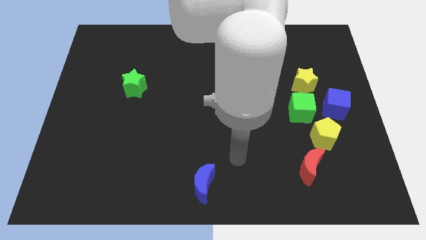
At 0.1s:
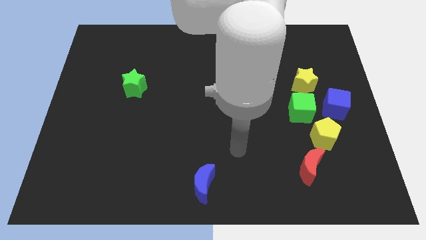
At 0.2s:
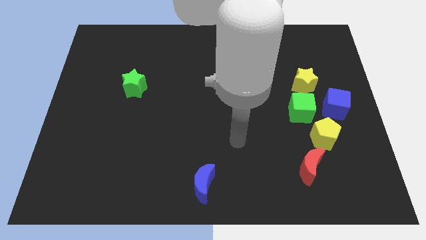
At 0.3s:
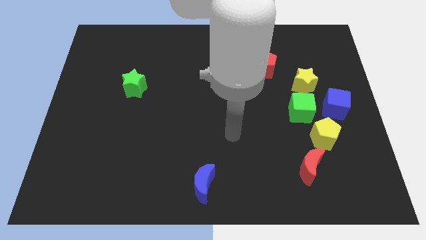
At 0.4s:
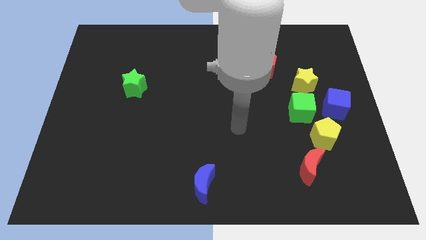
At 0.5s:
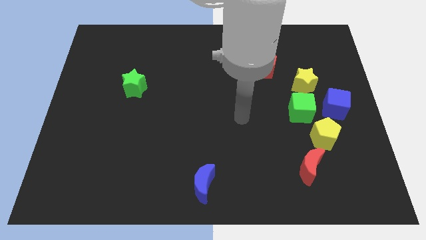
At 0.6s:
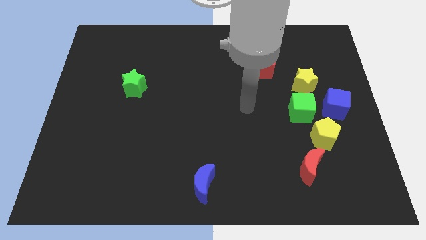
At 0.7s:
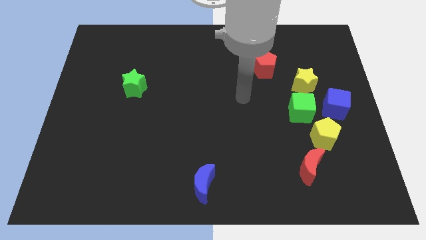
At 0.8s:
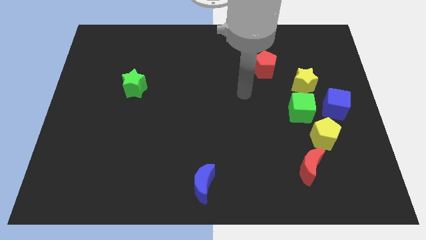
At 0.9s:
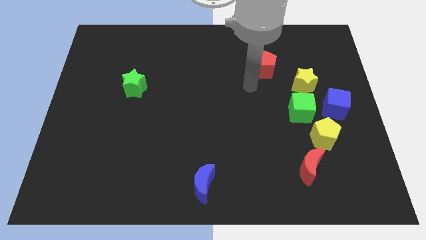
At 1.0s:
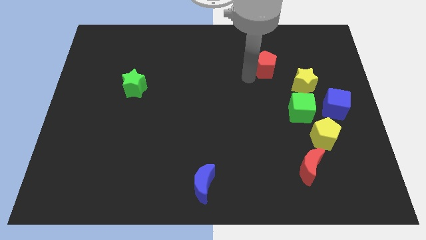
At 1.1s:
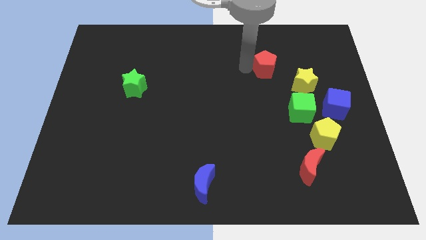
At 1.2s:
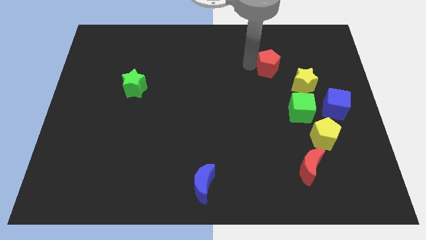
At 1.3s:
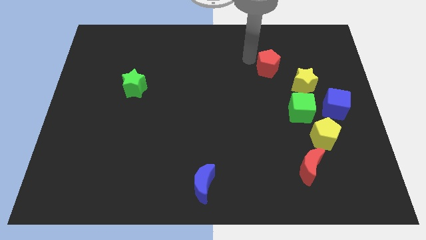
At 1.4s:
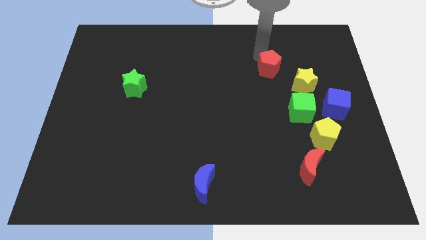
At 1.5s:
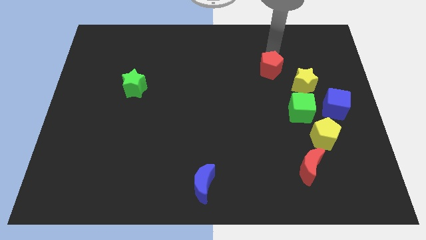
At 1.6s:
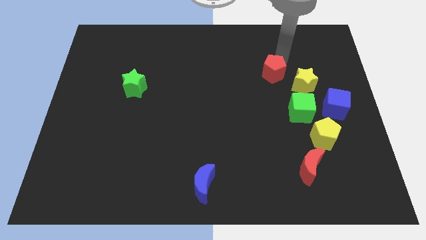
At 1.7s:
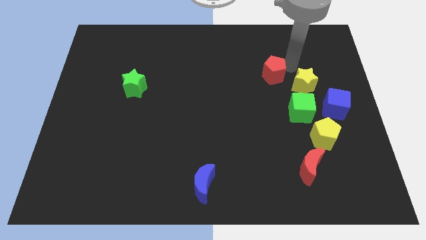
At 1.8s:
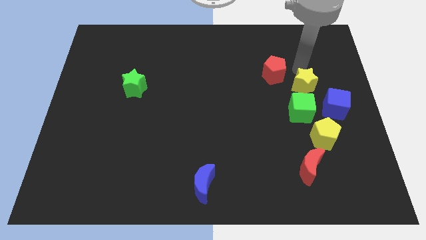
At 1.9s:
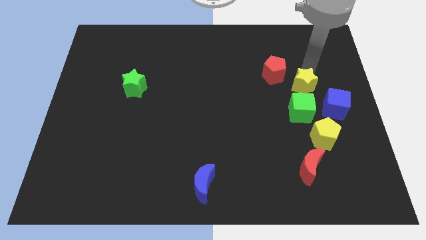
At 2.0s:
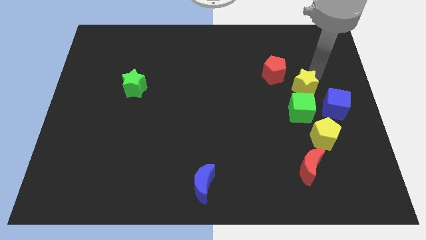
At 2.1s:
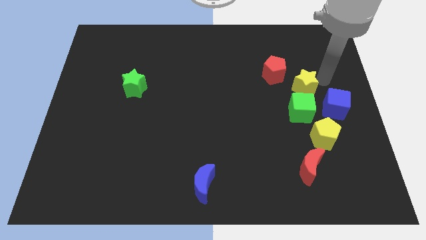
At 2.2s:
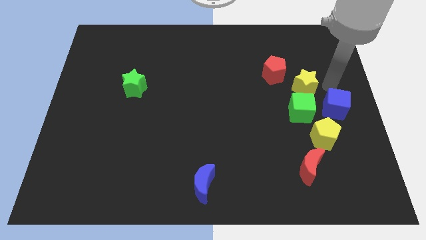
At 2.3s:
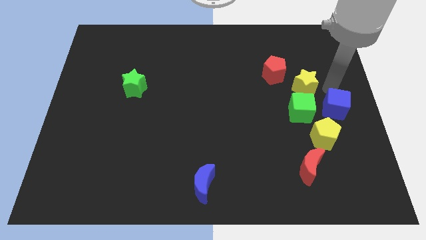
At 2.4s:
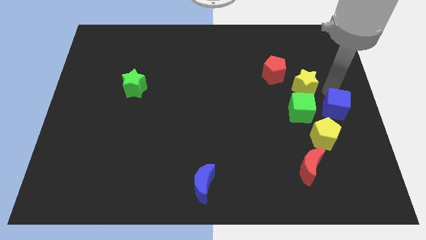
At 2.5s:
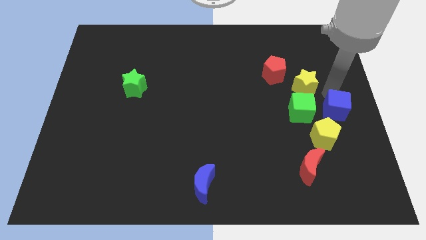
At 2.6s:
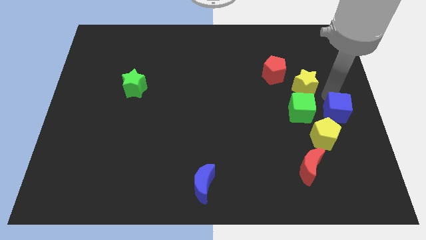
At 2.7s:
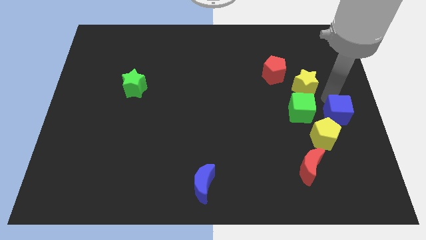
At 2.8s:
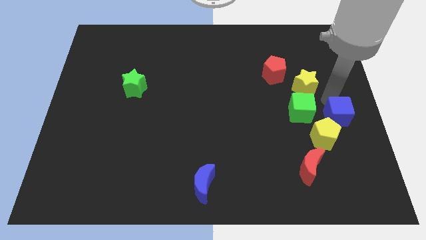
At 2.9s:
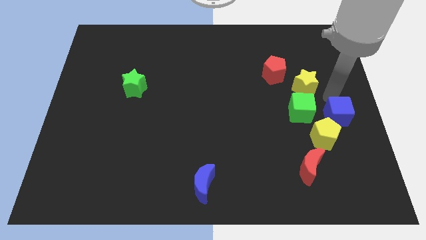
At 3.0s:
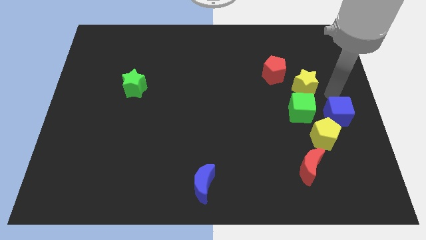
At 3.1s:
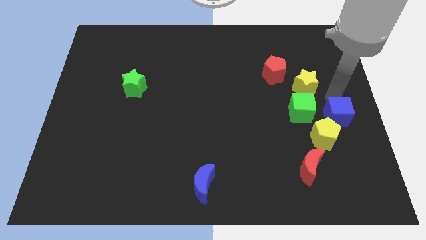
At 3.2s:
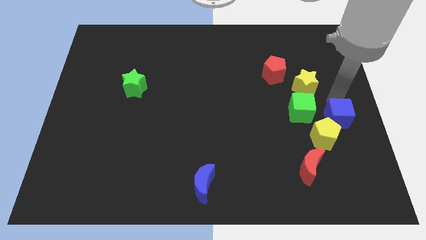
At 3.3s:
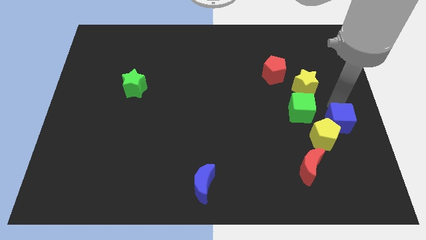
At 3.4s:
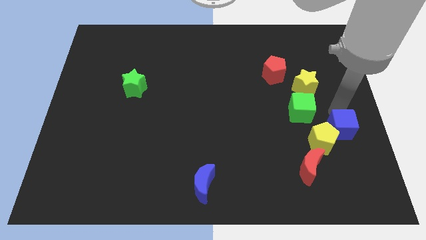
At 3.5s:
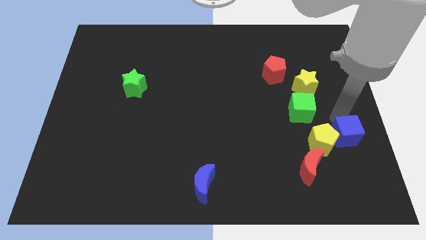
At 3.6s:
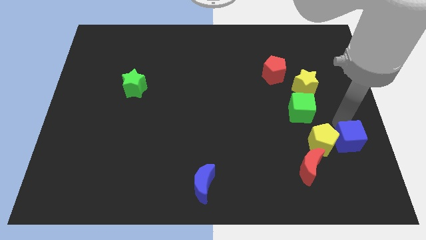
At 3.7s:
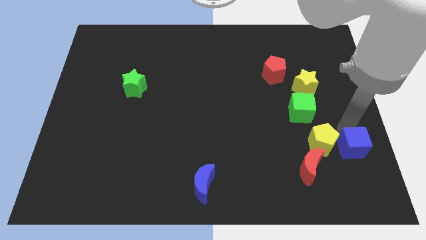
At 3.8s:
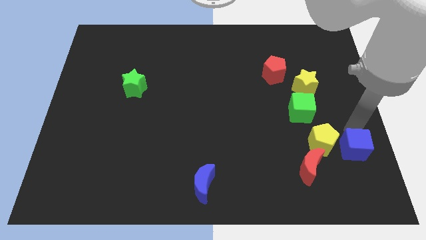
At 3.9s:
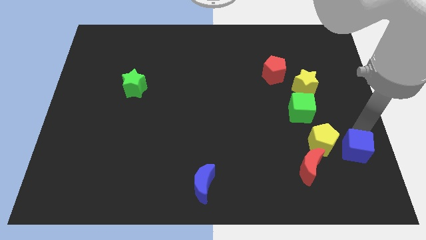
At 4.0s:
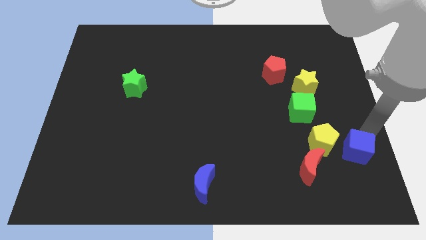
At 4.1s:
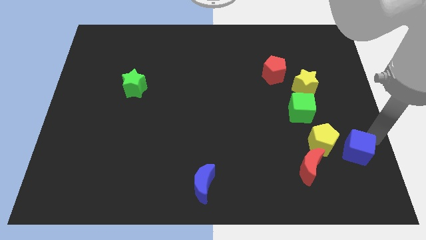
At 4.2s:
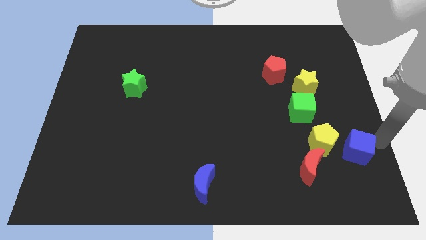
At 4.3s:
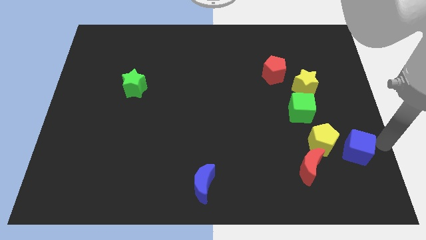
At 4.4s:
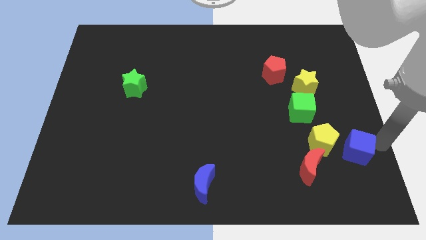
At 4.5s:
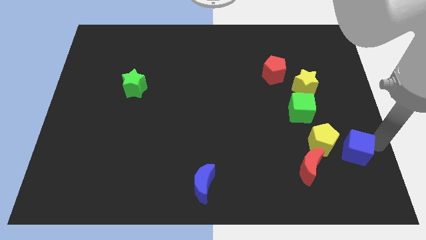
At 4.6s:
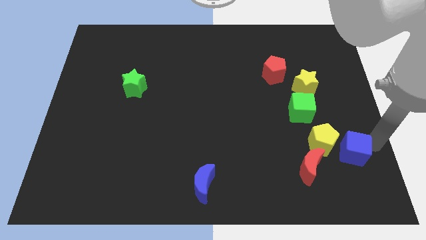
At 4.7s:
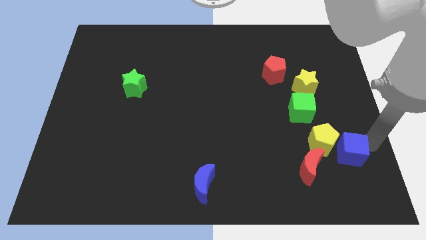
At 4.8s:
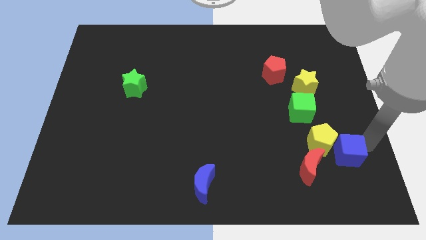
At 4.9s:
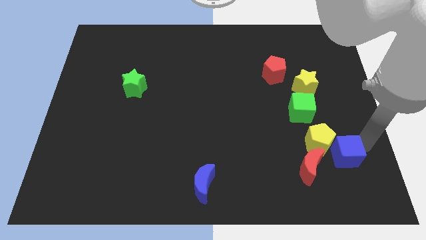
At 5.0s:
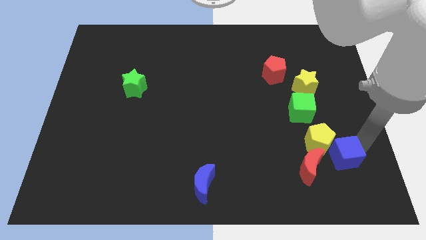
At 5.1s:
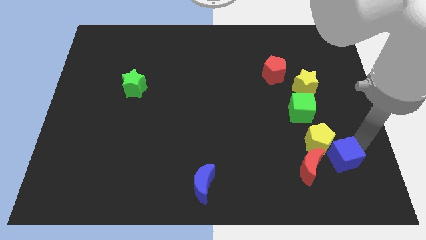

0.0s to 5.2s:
slightly slide the blue cube down and left diagonally

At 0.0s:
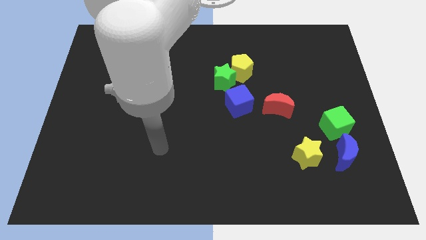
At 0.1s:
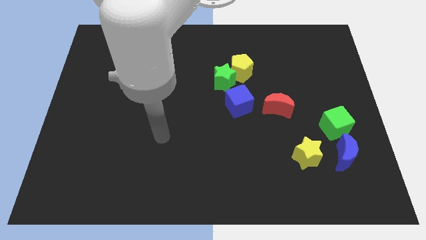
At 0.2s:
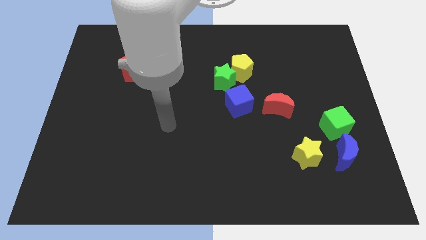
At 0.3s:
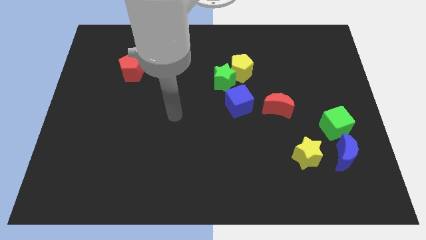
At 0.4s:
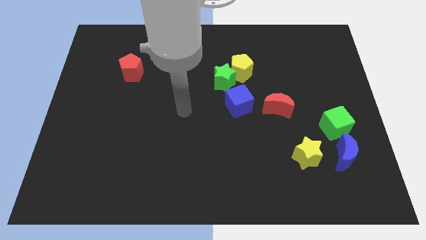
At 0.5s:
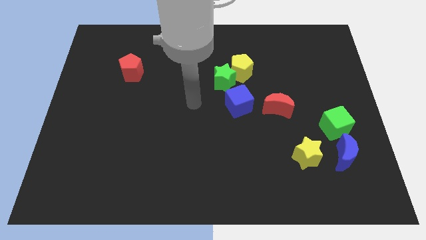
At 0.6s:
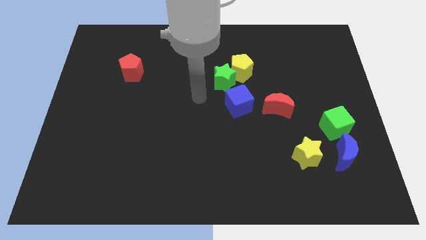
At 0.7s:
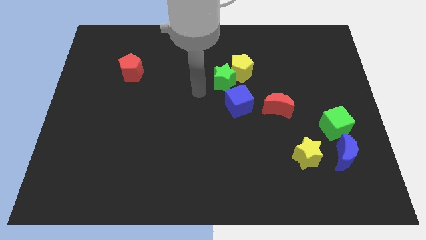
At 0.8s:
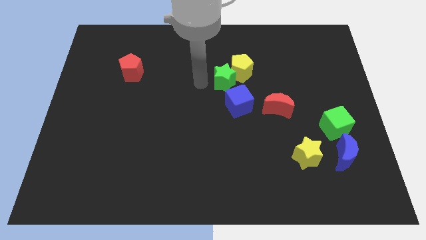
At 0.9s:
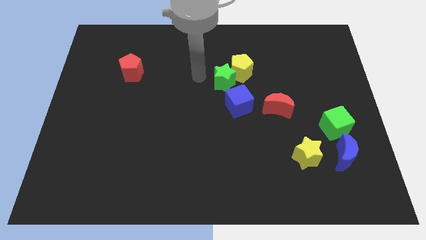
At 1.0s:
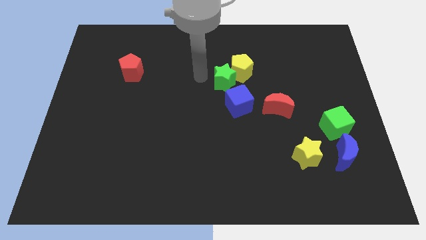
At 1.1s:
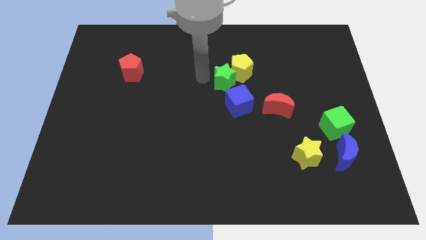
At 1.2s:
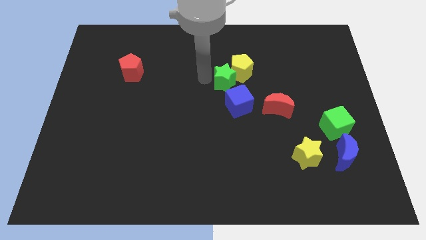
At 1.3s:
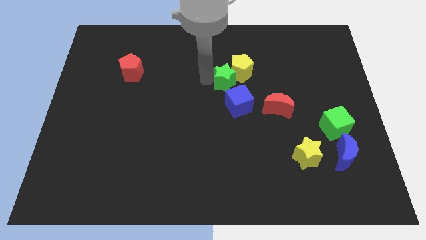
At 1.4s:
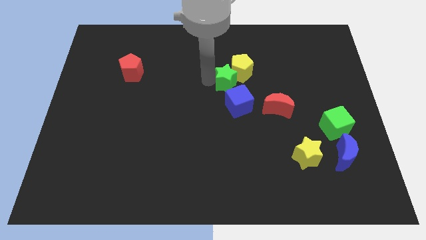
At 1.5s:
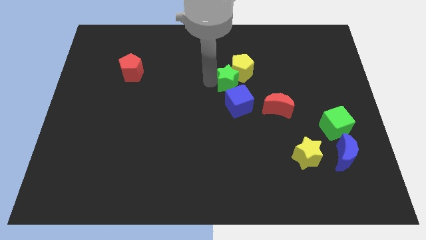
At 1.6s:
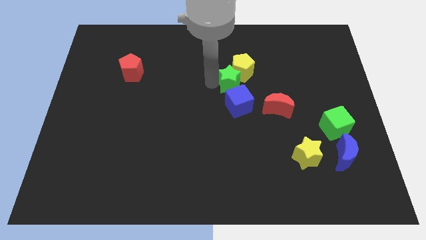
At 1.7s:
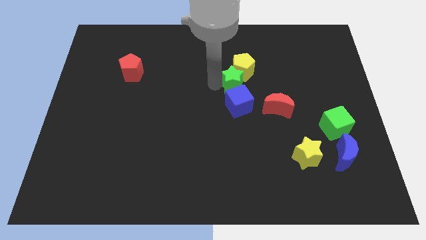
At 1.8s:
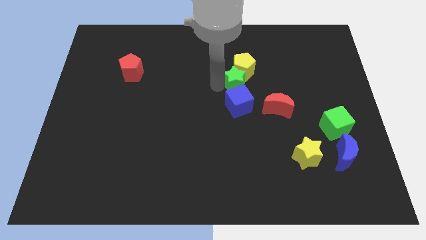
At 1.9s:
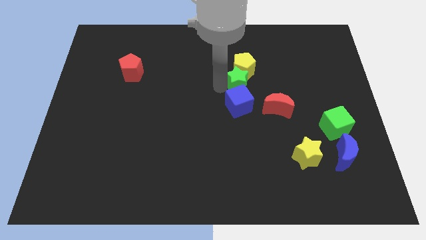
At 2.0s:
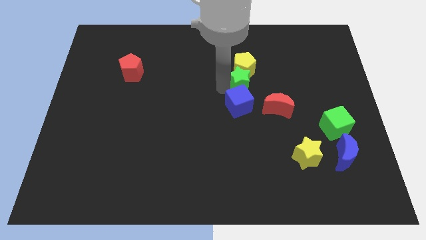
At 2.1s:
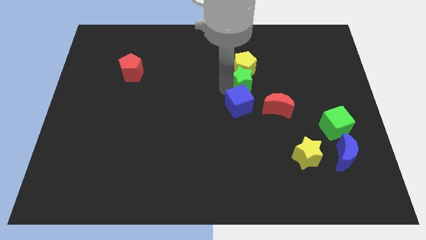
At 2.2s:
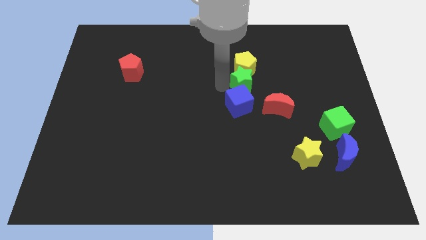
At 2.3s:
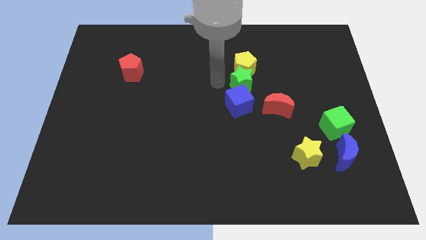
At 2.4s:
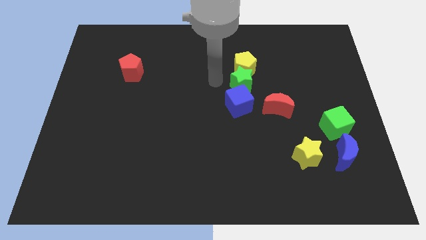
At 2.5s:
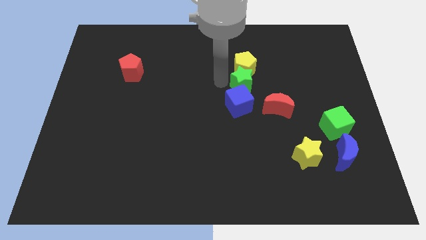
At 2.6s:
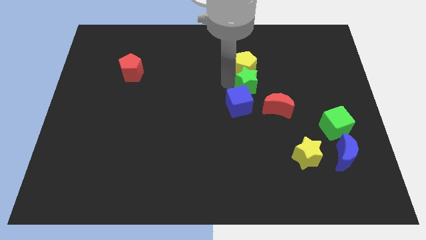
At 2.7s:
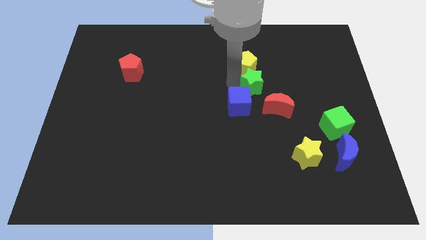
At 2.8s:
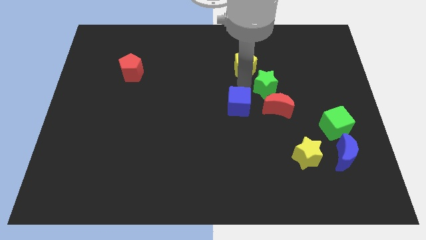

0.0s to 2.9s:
slide the green star downwards and then to the right a little bit
